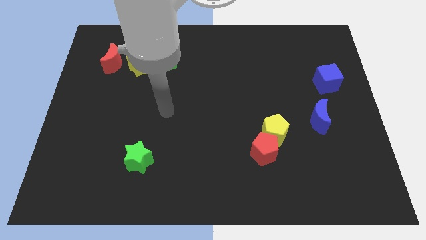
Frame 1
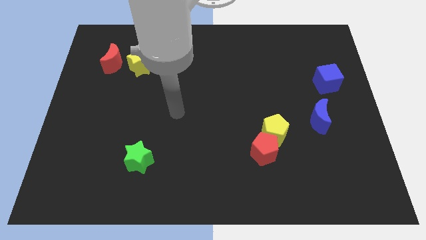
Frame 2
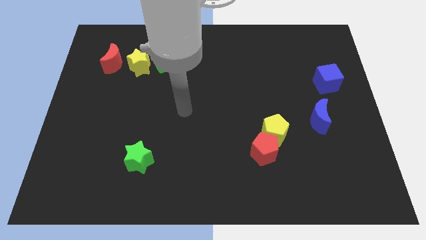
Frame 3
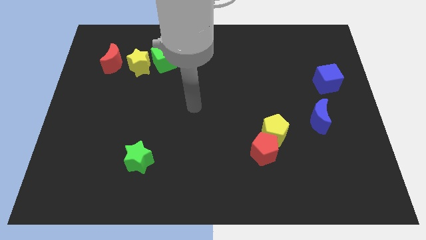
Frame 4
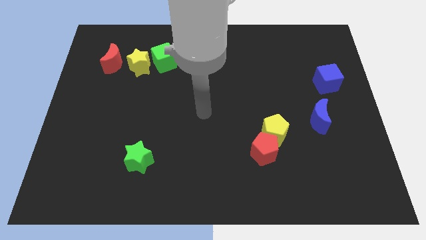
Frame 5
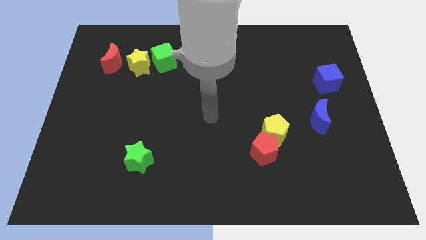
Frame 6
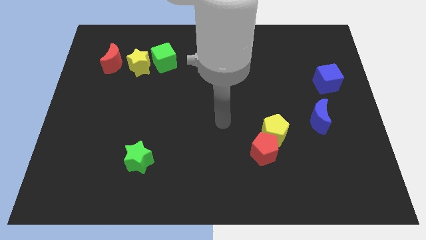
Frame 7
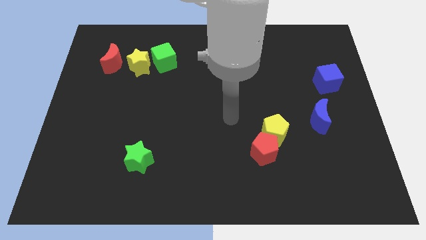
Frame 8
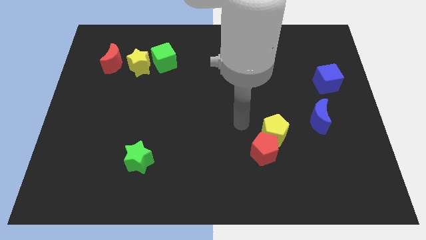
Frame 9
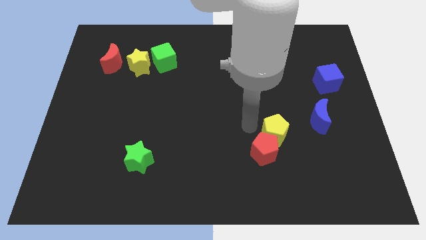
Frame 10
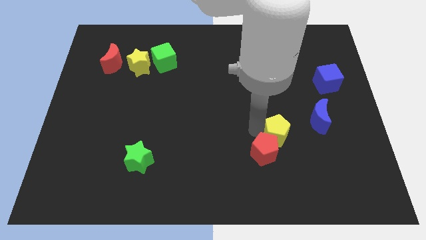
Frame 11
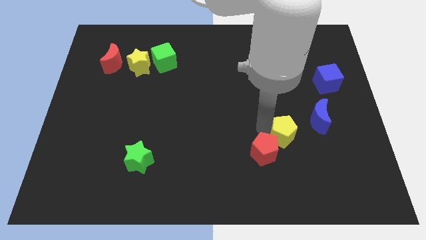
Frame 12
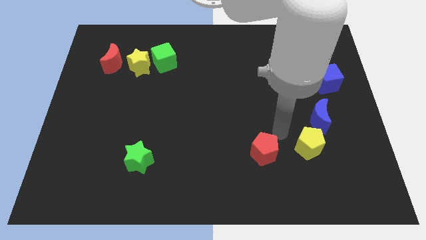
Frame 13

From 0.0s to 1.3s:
pull the red pentagon apart from the yellow pentagon

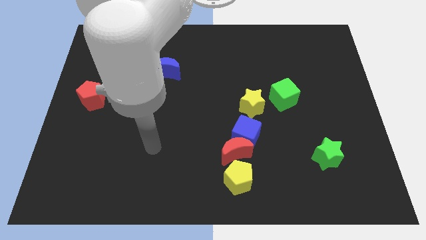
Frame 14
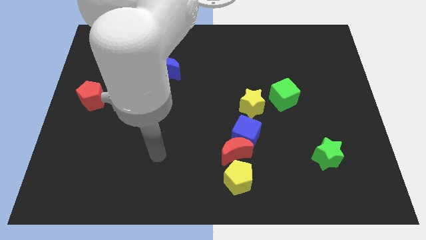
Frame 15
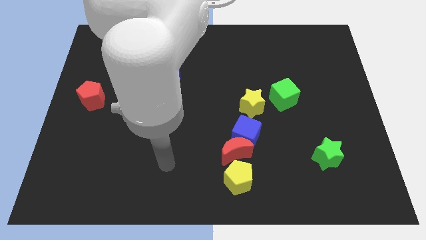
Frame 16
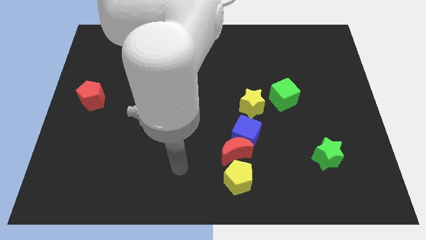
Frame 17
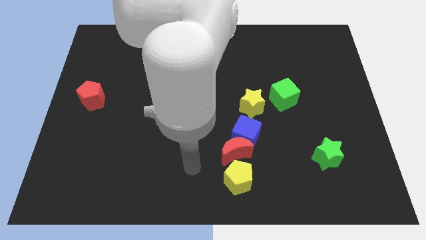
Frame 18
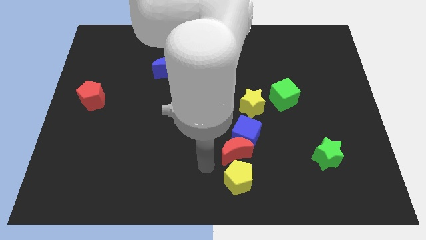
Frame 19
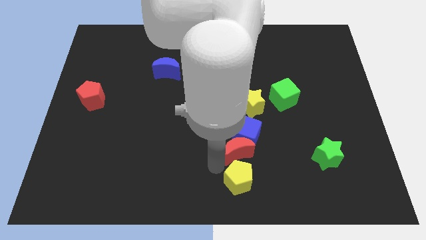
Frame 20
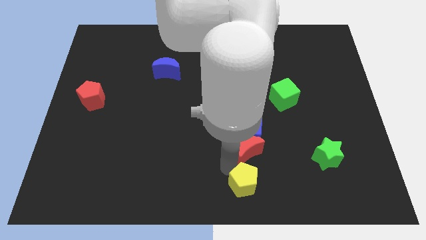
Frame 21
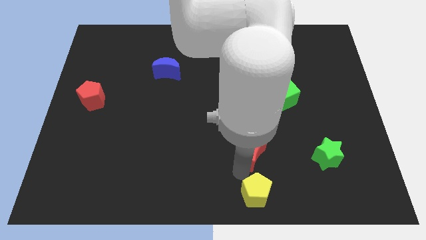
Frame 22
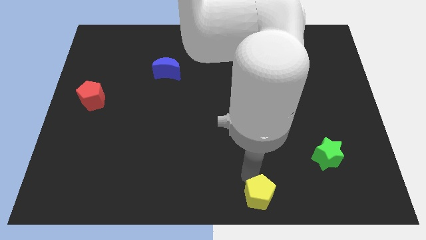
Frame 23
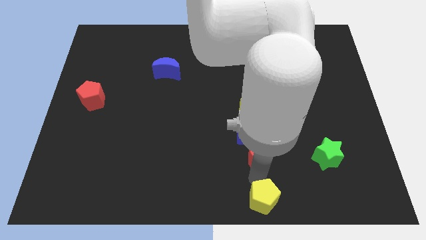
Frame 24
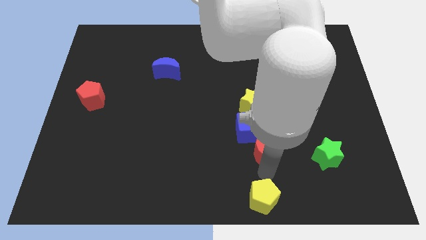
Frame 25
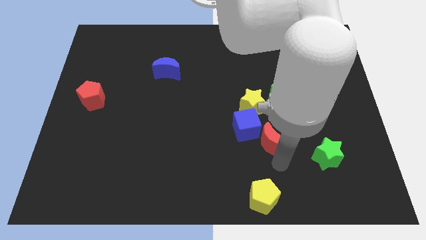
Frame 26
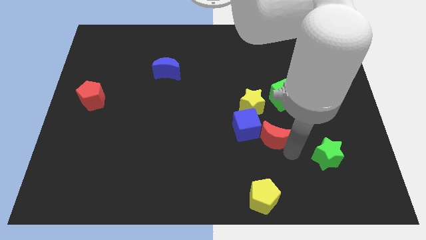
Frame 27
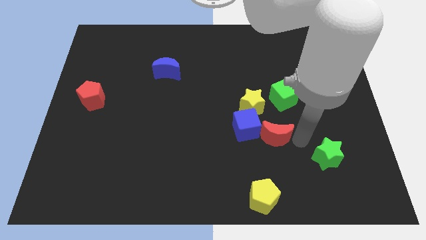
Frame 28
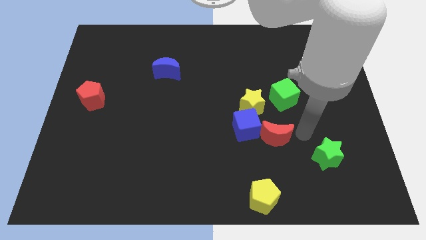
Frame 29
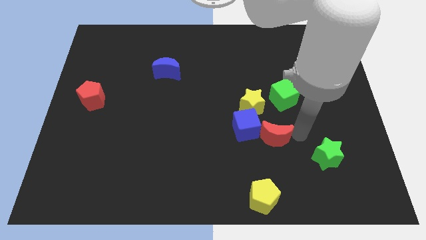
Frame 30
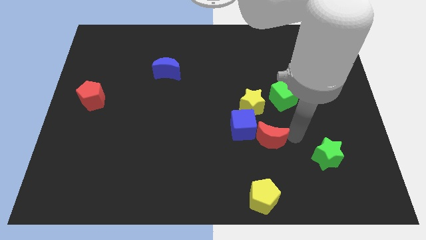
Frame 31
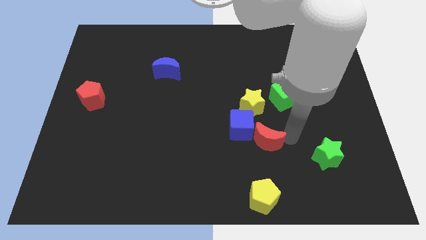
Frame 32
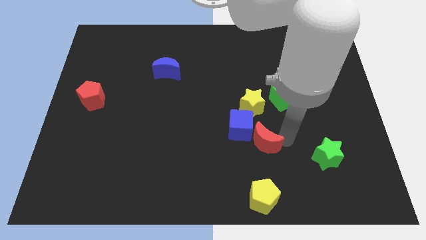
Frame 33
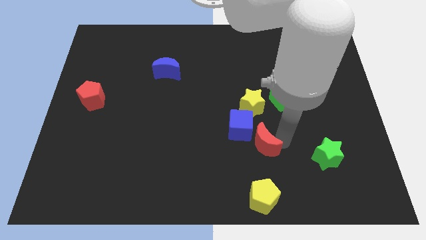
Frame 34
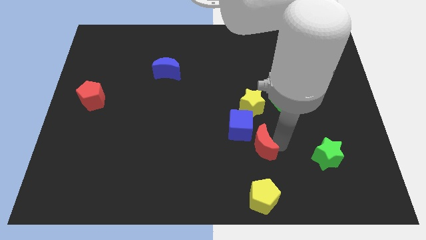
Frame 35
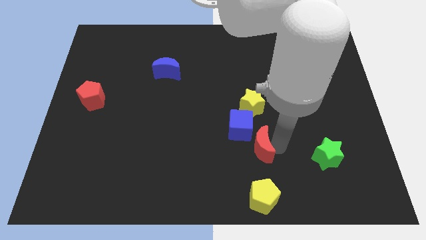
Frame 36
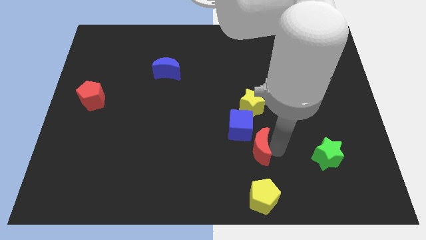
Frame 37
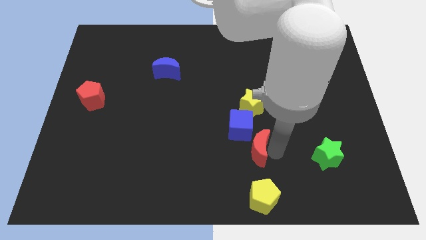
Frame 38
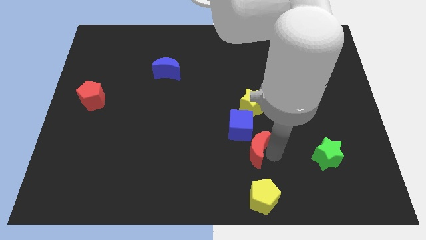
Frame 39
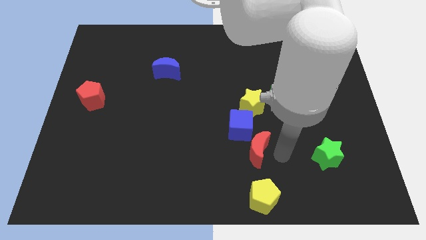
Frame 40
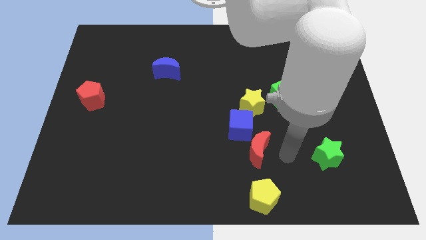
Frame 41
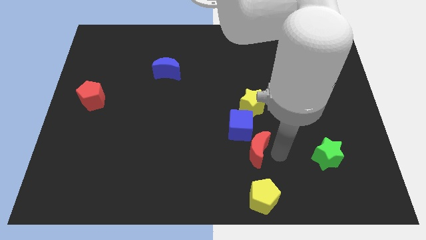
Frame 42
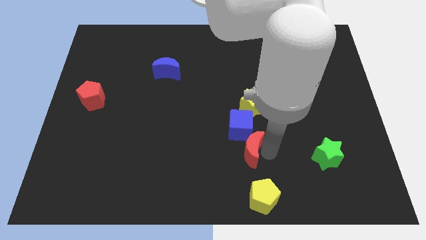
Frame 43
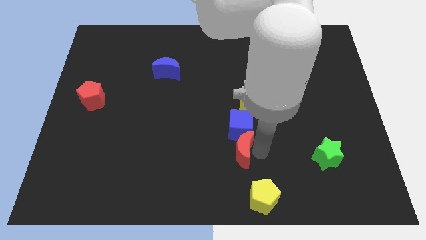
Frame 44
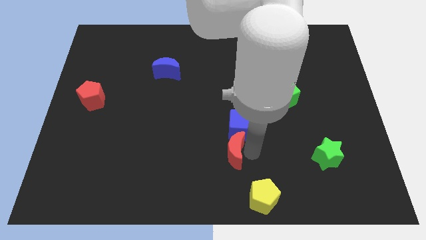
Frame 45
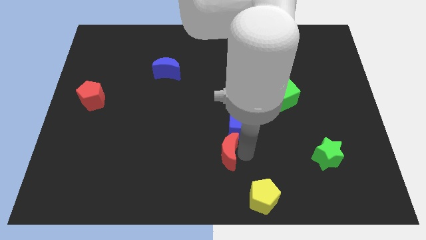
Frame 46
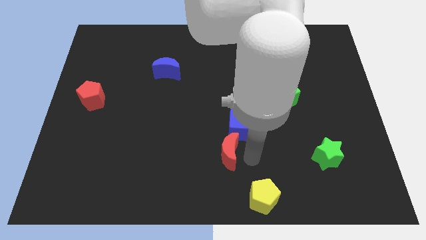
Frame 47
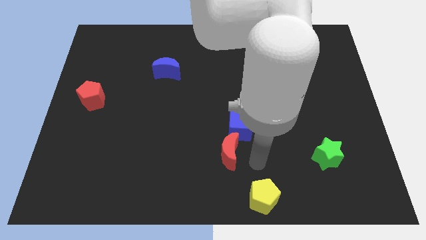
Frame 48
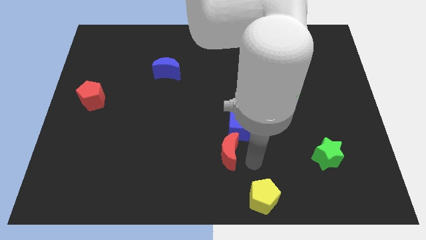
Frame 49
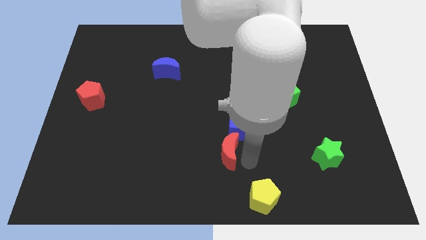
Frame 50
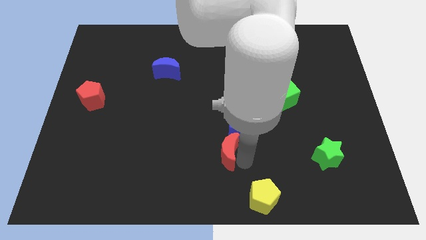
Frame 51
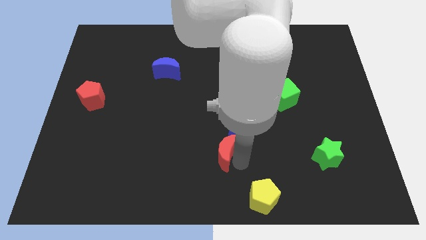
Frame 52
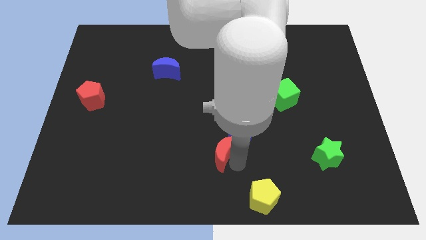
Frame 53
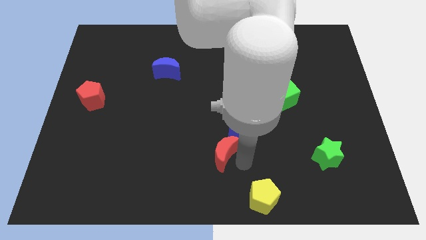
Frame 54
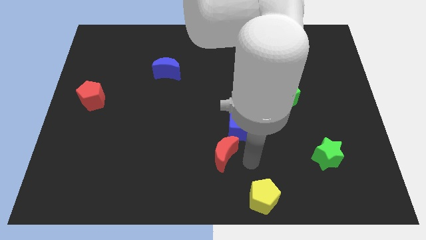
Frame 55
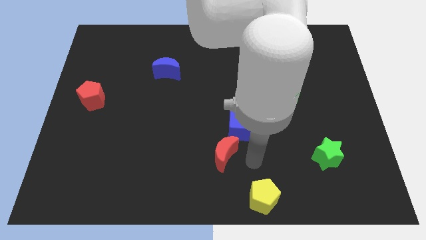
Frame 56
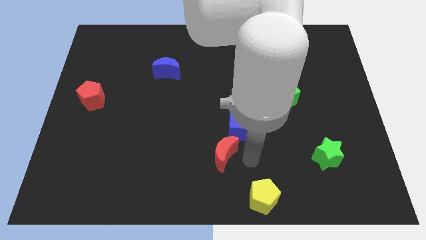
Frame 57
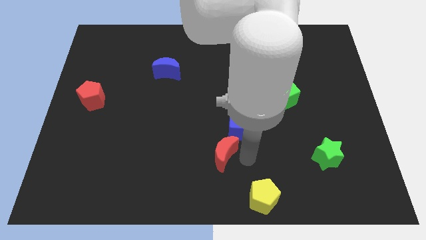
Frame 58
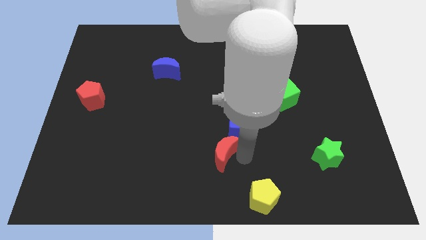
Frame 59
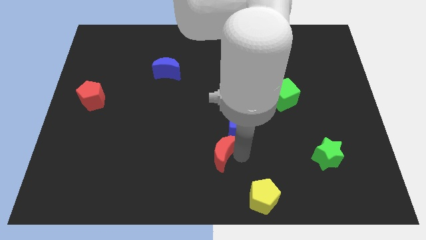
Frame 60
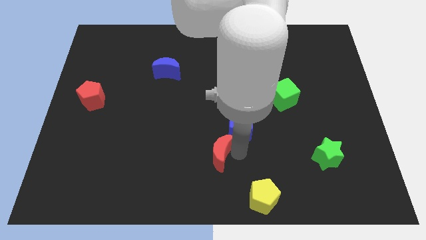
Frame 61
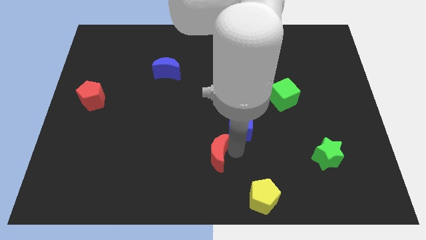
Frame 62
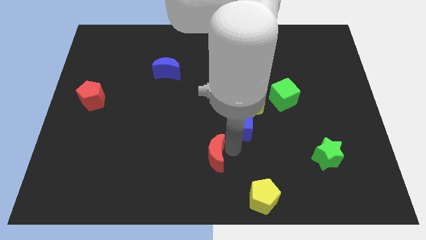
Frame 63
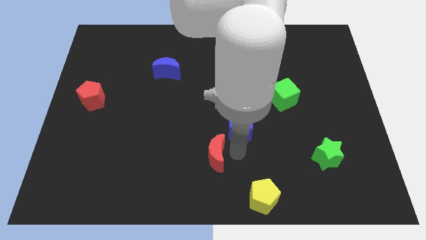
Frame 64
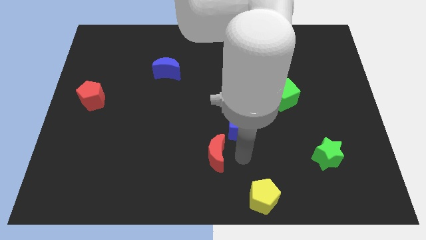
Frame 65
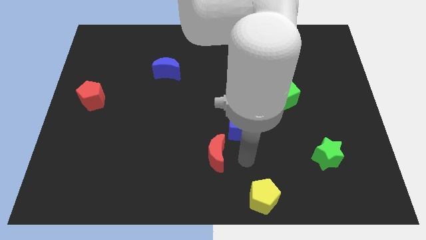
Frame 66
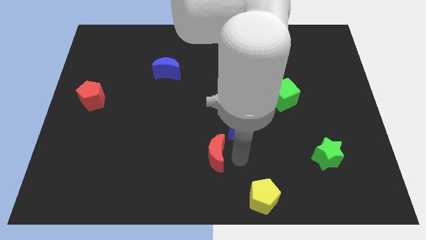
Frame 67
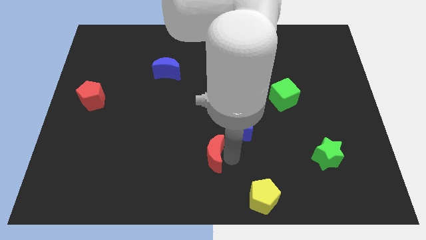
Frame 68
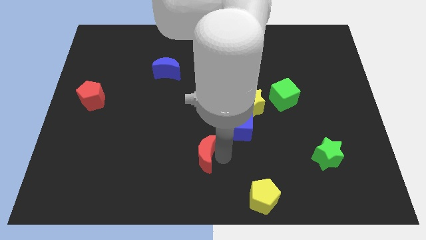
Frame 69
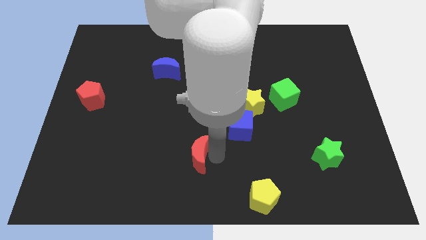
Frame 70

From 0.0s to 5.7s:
move the red moon away from the blue cube and yellow pentagon

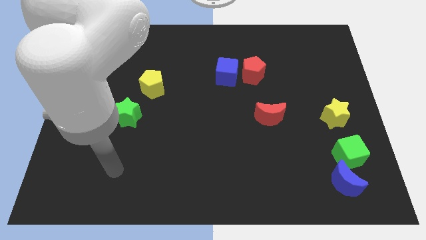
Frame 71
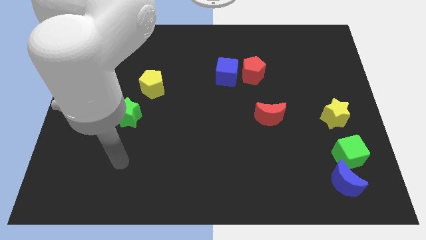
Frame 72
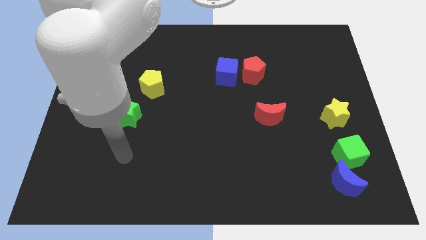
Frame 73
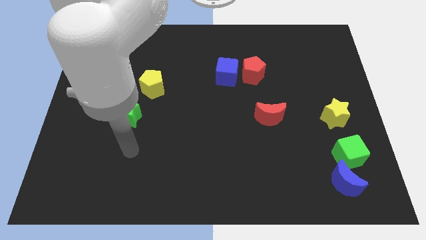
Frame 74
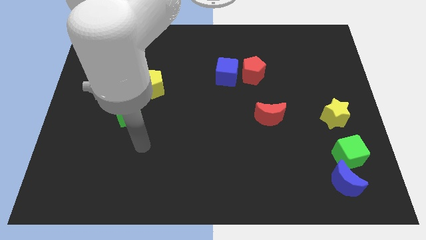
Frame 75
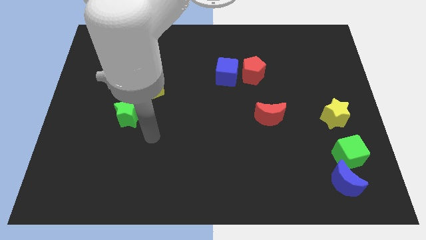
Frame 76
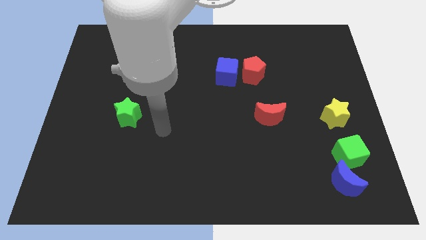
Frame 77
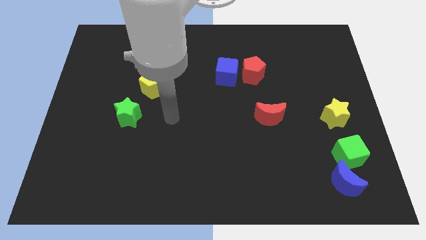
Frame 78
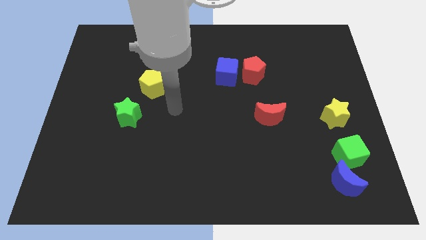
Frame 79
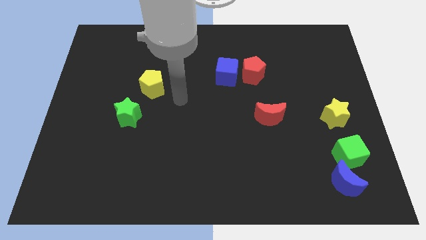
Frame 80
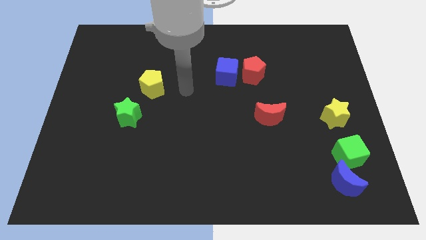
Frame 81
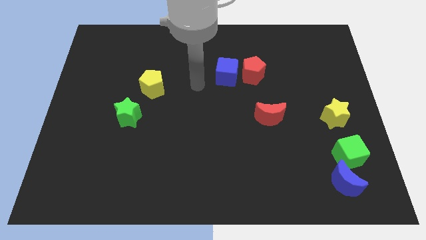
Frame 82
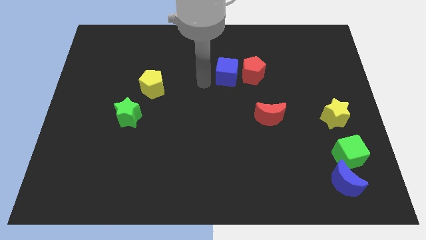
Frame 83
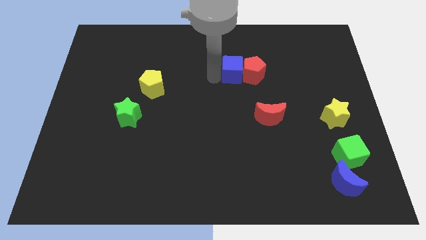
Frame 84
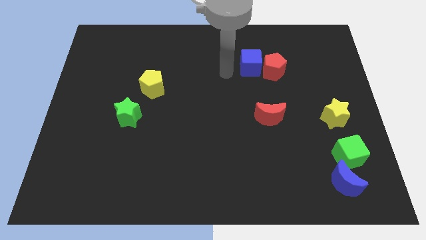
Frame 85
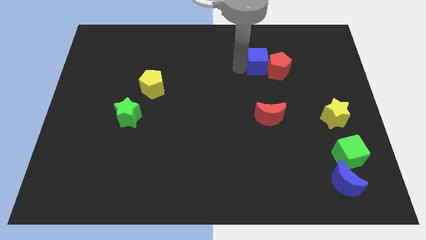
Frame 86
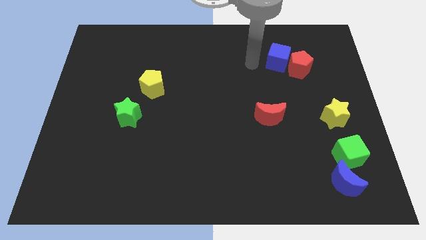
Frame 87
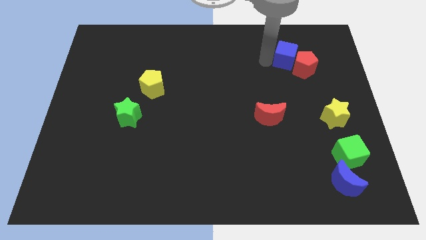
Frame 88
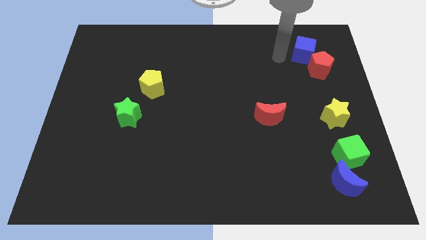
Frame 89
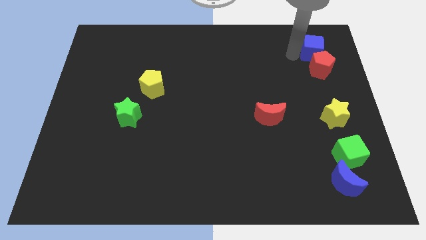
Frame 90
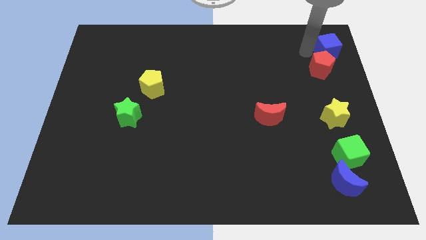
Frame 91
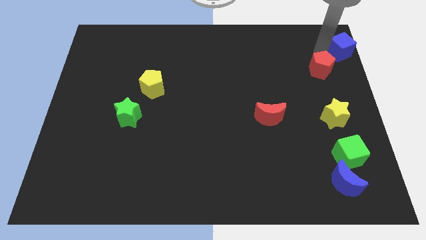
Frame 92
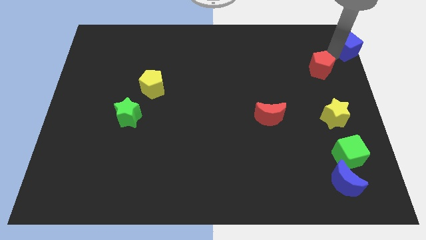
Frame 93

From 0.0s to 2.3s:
pull the red pentagon apart from the blue cube

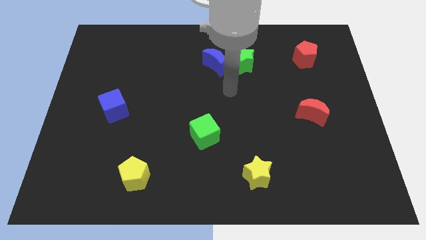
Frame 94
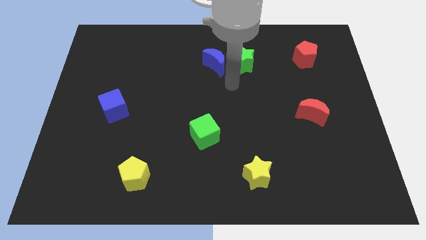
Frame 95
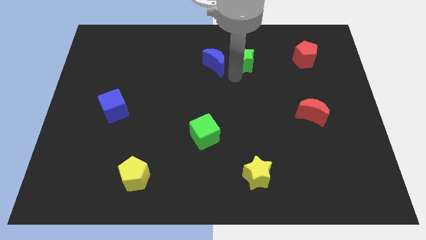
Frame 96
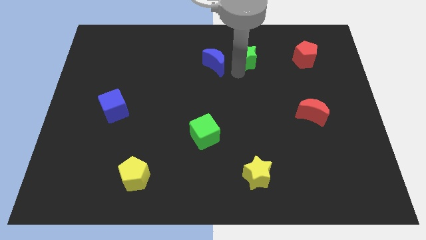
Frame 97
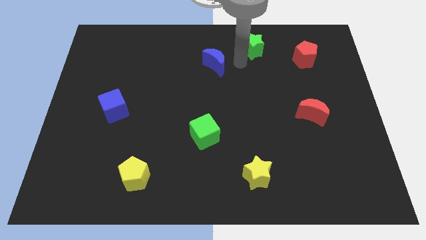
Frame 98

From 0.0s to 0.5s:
move the blue moon away from the green star
